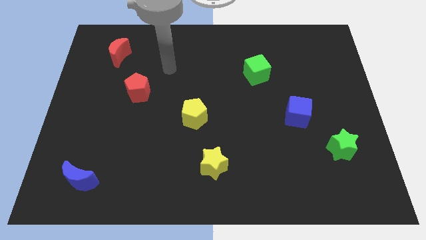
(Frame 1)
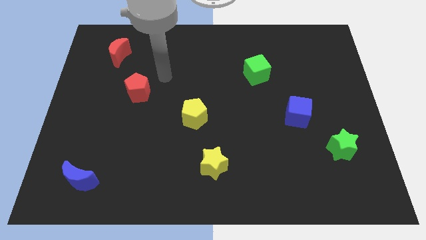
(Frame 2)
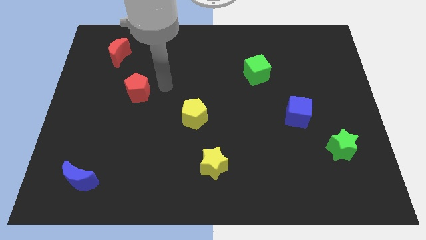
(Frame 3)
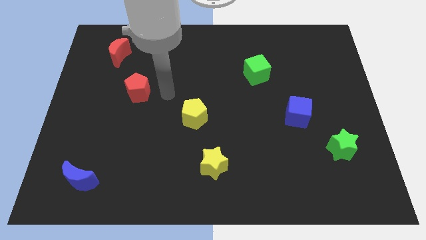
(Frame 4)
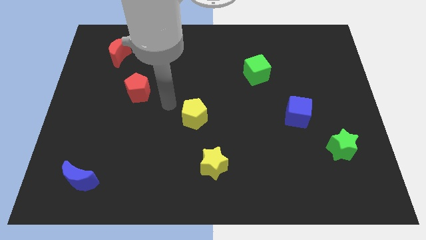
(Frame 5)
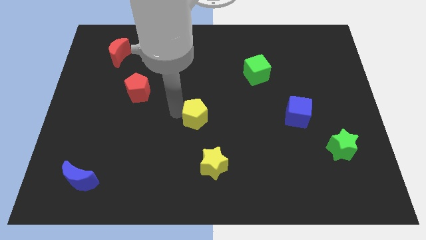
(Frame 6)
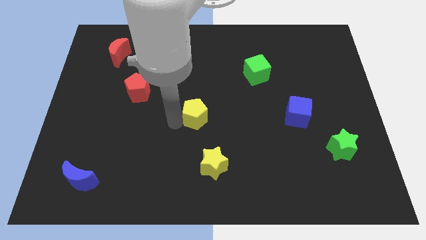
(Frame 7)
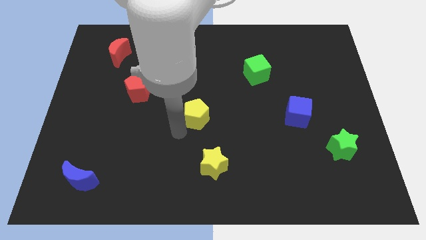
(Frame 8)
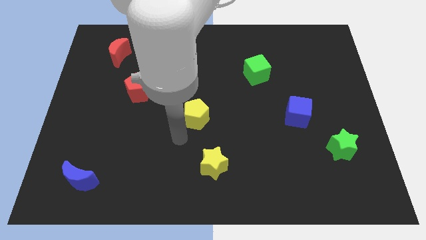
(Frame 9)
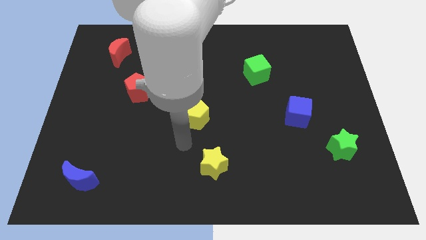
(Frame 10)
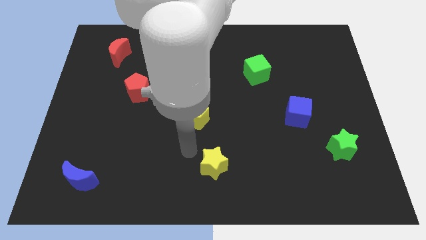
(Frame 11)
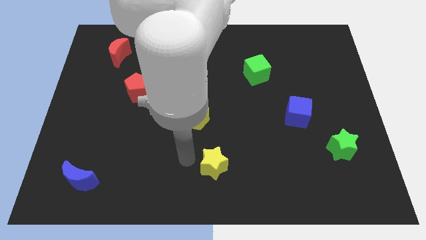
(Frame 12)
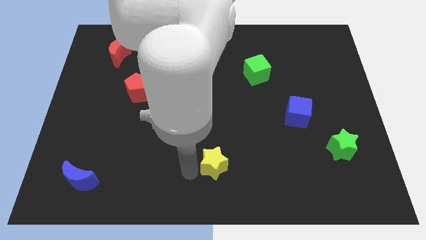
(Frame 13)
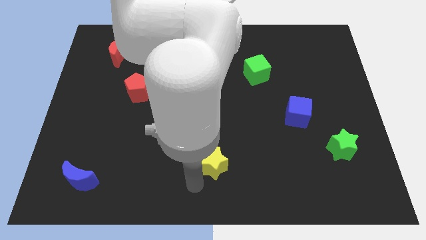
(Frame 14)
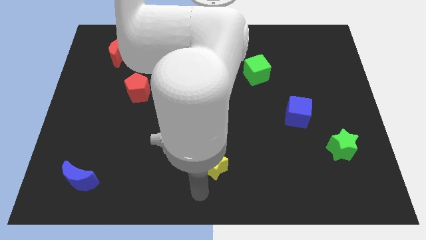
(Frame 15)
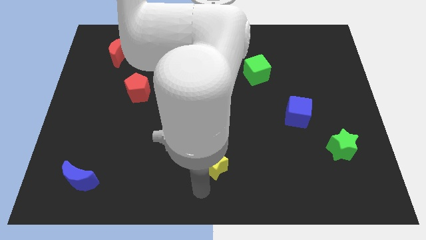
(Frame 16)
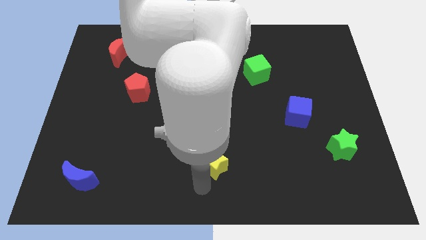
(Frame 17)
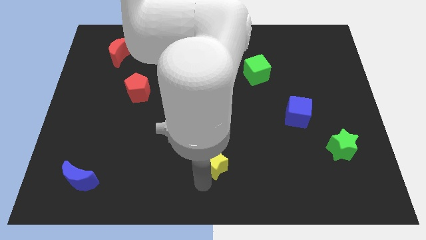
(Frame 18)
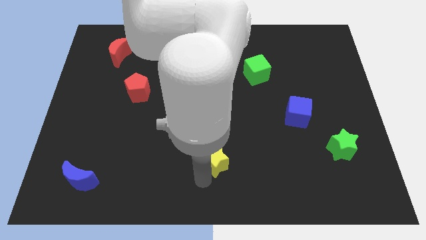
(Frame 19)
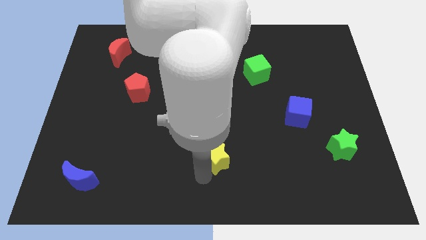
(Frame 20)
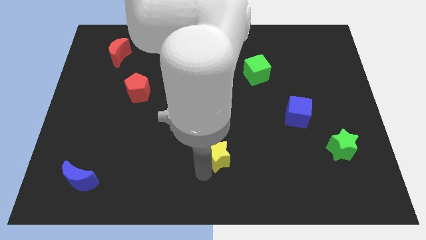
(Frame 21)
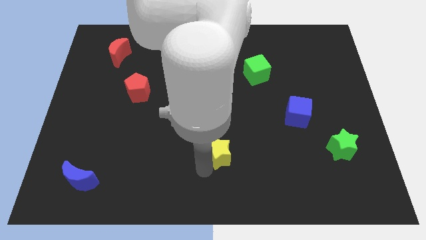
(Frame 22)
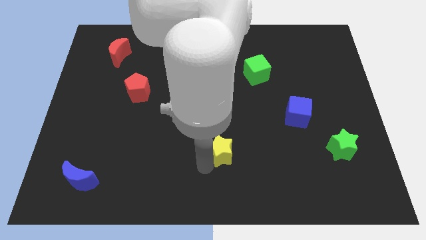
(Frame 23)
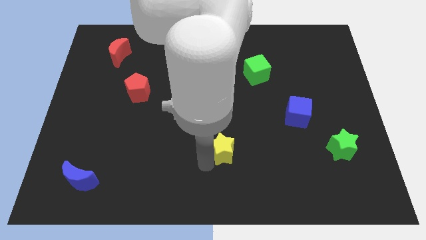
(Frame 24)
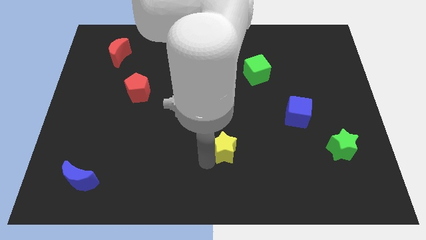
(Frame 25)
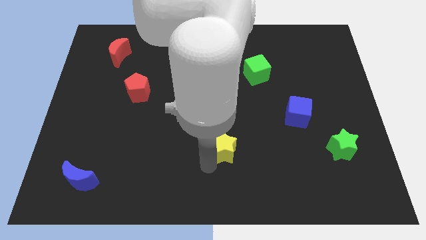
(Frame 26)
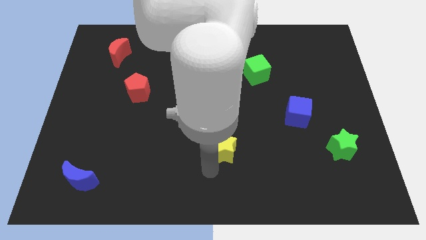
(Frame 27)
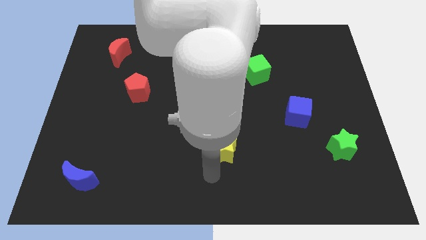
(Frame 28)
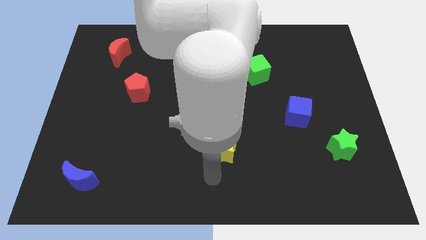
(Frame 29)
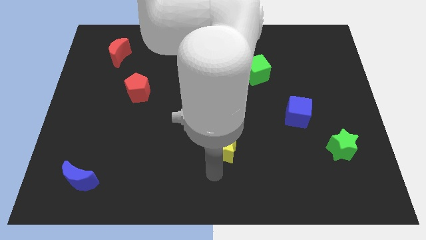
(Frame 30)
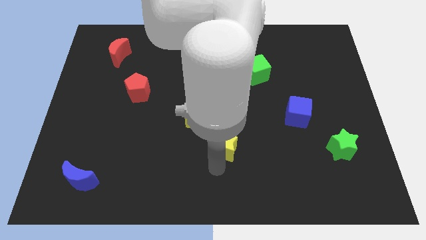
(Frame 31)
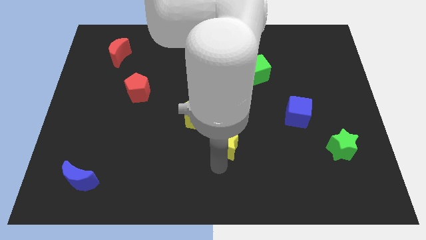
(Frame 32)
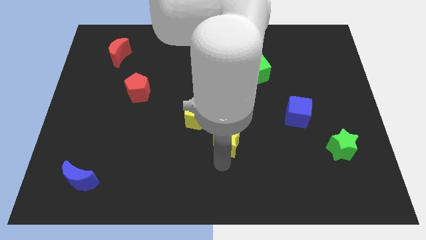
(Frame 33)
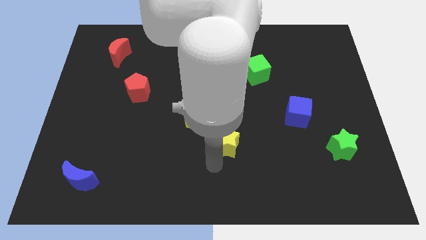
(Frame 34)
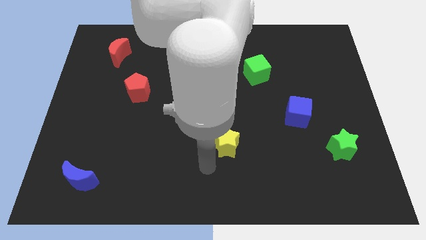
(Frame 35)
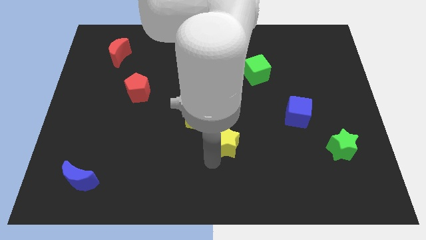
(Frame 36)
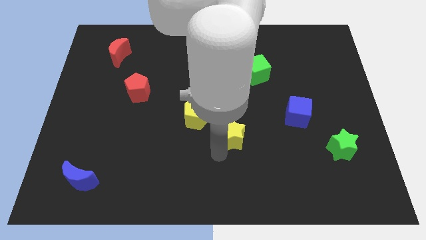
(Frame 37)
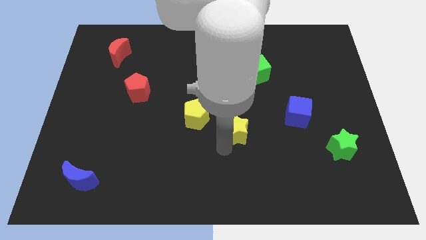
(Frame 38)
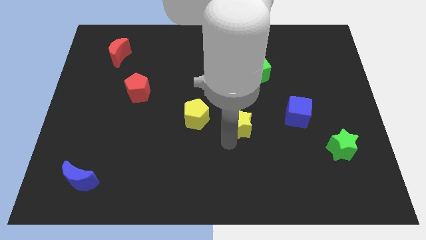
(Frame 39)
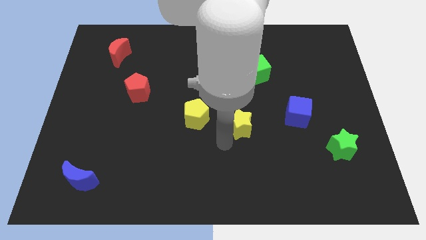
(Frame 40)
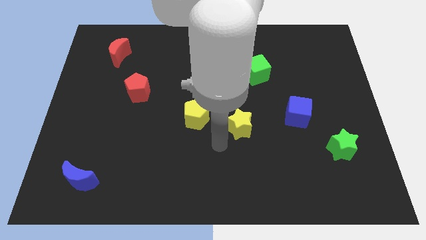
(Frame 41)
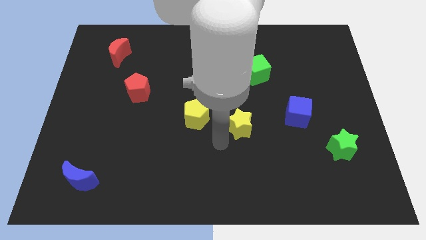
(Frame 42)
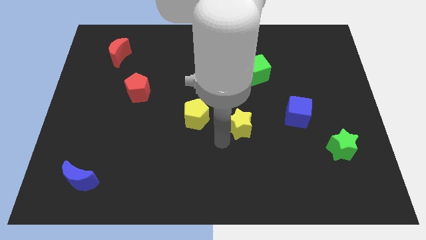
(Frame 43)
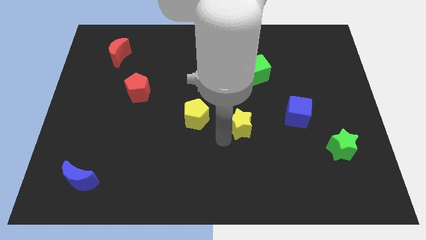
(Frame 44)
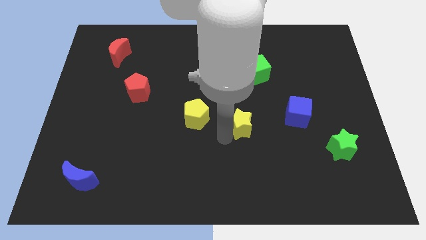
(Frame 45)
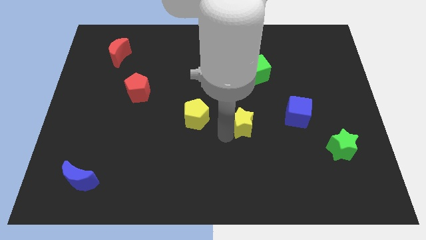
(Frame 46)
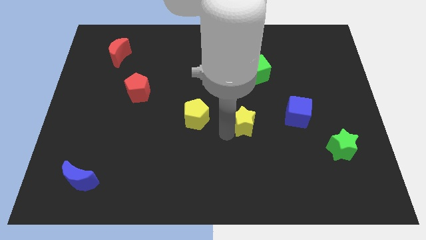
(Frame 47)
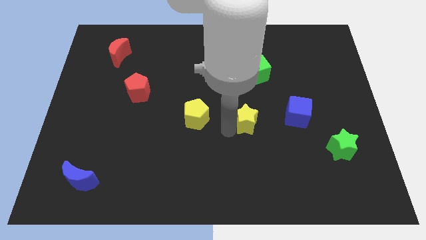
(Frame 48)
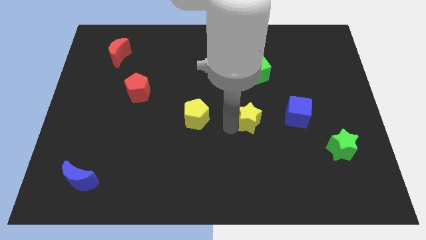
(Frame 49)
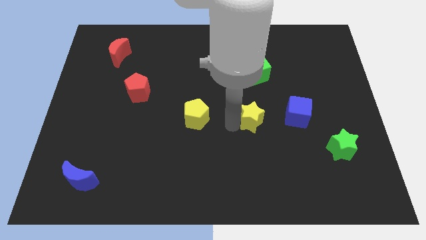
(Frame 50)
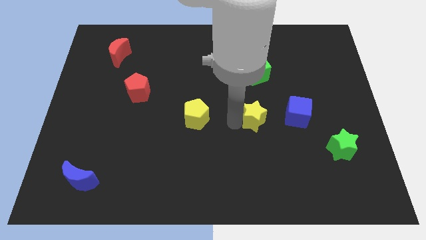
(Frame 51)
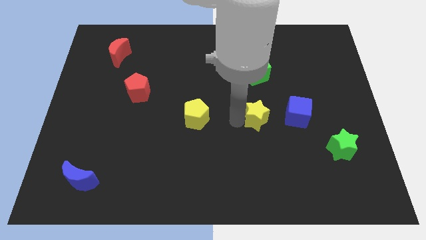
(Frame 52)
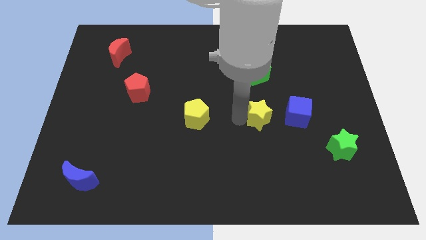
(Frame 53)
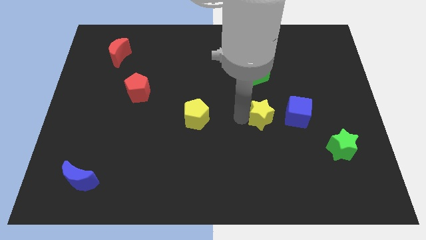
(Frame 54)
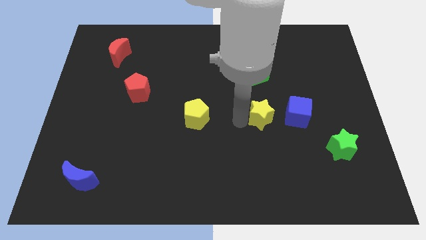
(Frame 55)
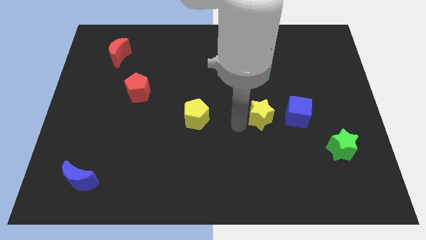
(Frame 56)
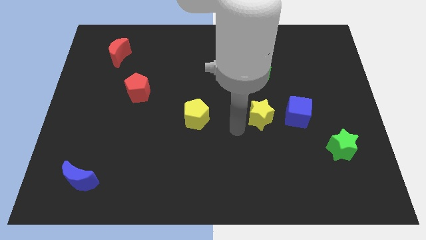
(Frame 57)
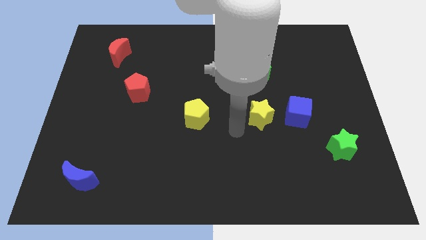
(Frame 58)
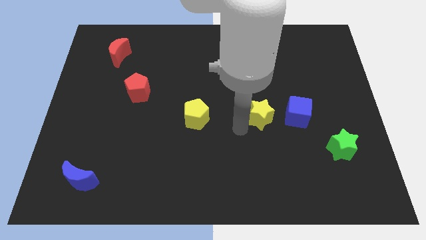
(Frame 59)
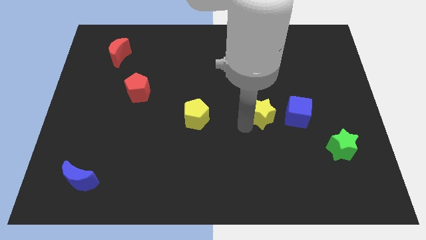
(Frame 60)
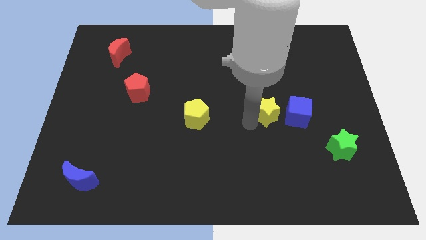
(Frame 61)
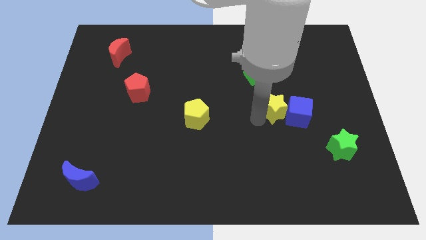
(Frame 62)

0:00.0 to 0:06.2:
move the yellow star upwards and to the right

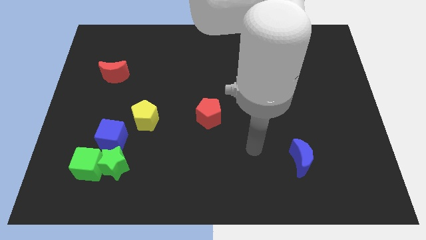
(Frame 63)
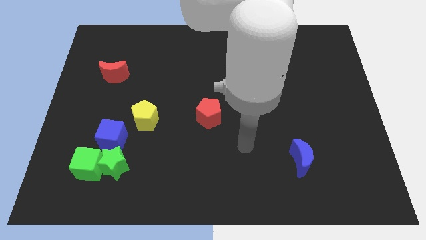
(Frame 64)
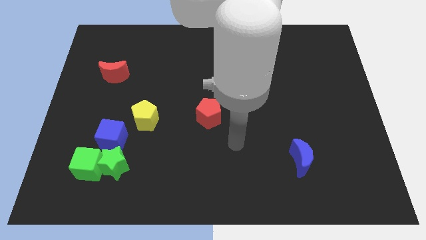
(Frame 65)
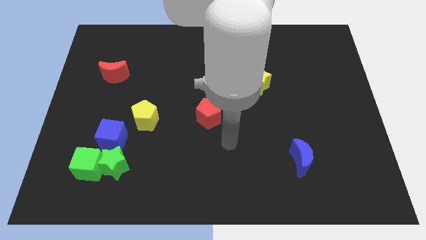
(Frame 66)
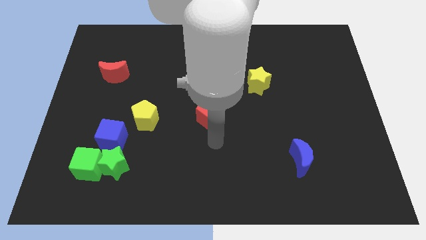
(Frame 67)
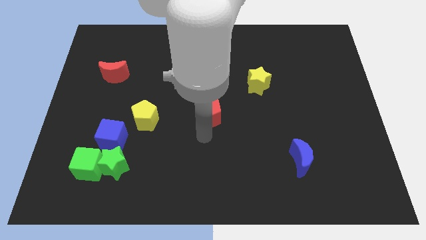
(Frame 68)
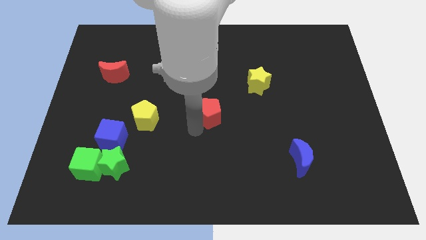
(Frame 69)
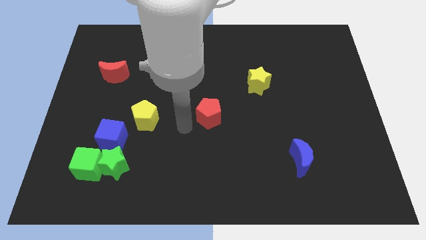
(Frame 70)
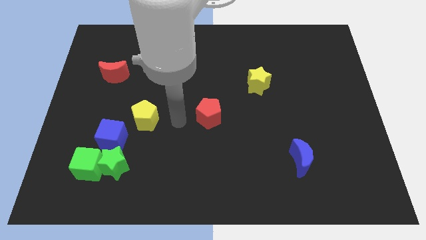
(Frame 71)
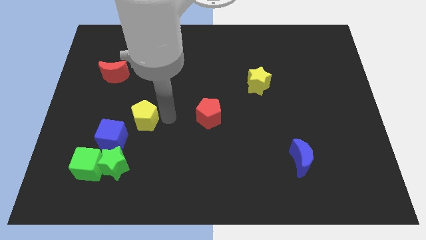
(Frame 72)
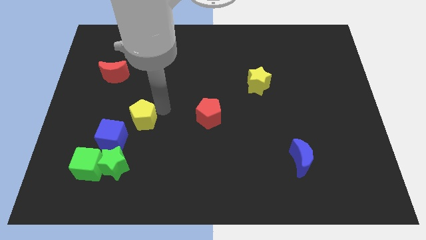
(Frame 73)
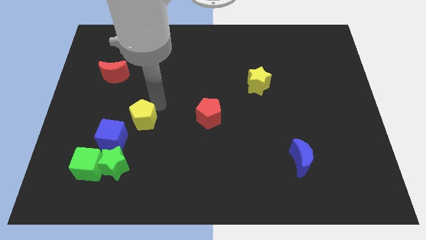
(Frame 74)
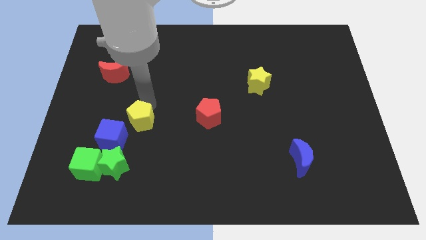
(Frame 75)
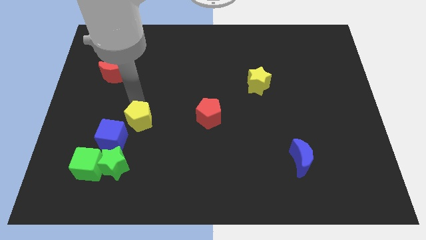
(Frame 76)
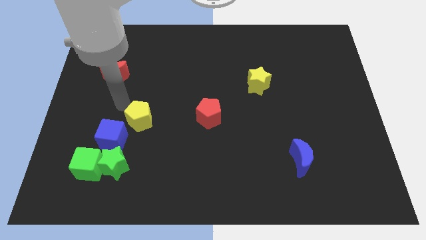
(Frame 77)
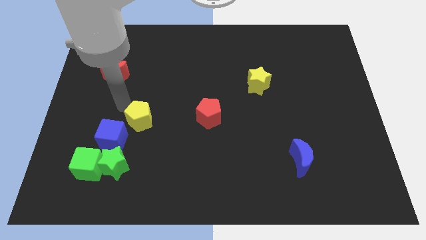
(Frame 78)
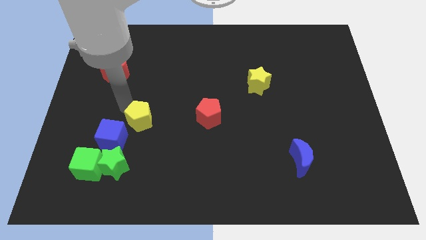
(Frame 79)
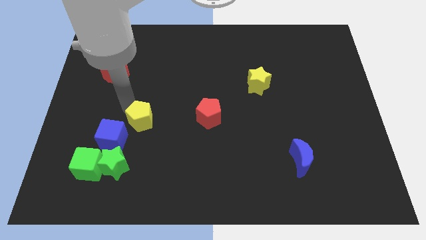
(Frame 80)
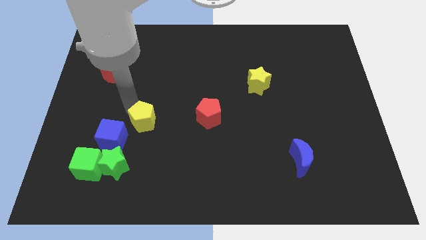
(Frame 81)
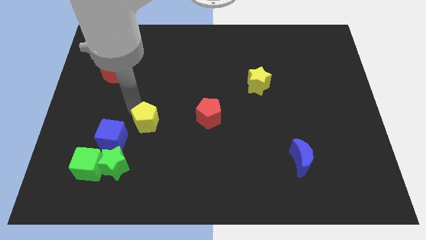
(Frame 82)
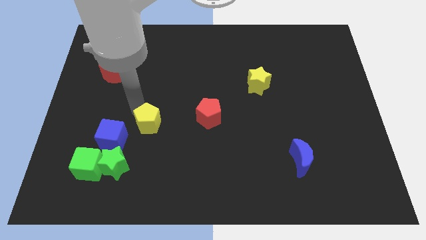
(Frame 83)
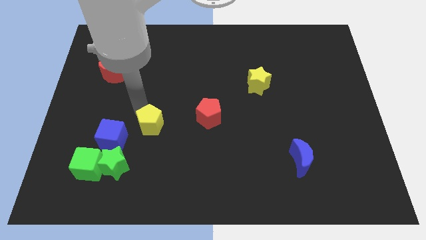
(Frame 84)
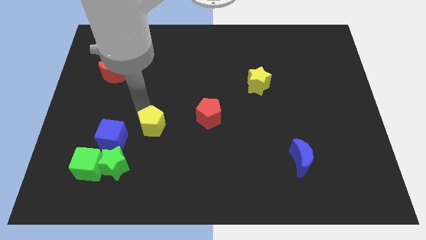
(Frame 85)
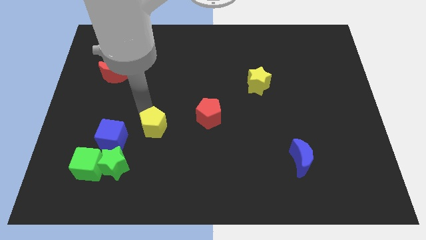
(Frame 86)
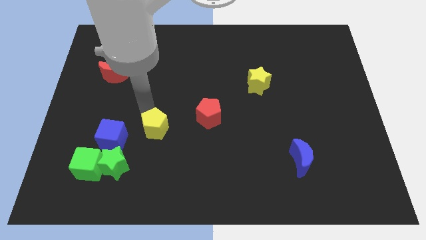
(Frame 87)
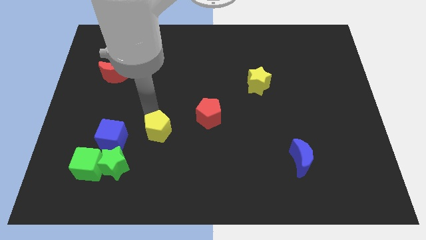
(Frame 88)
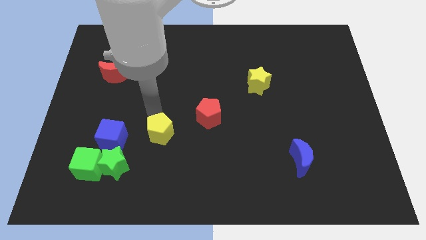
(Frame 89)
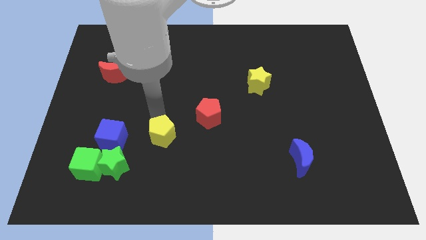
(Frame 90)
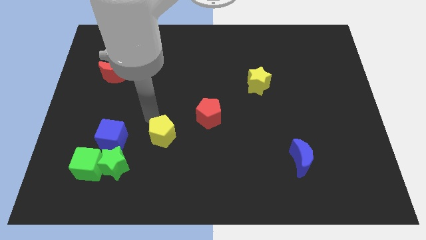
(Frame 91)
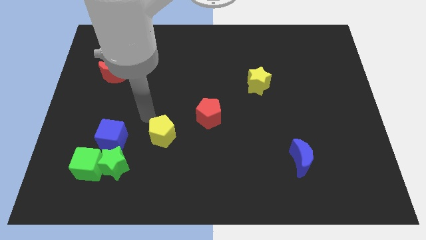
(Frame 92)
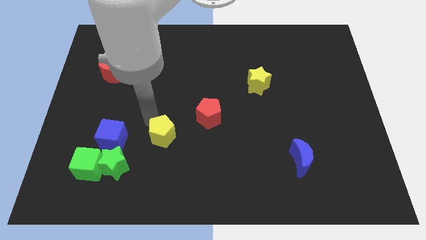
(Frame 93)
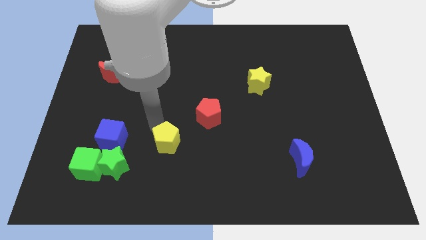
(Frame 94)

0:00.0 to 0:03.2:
slide the yellow pentagon downwards and right a little
